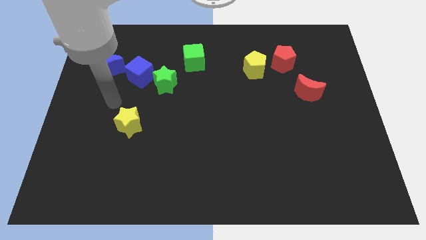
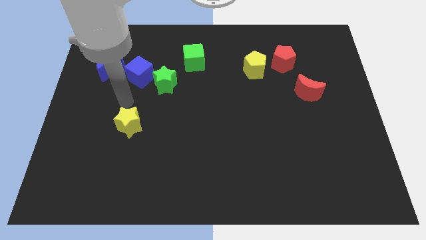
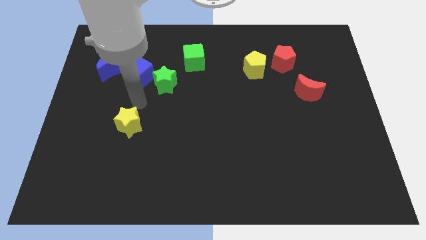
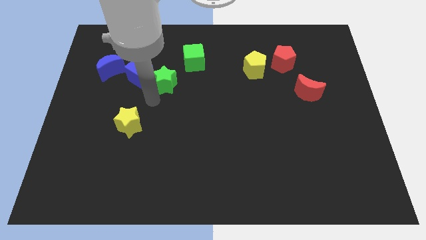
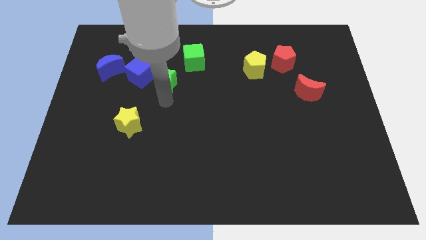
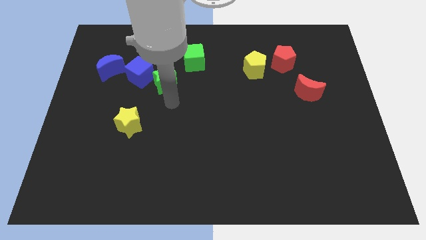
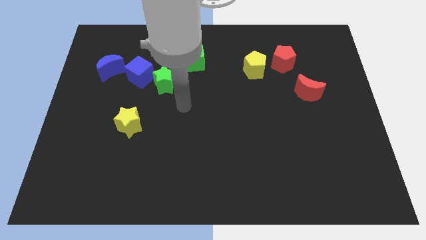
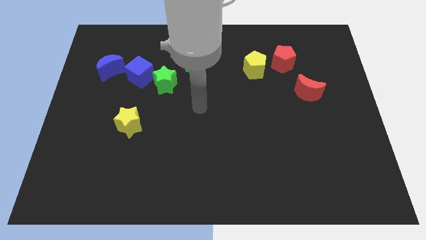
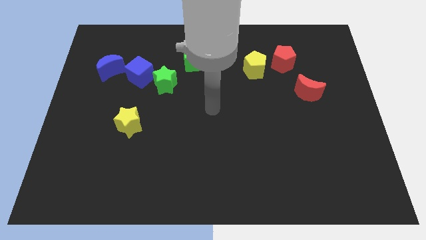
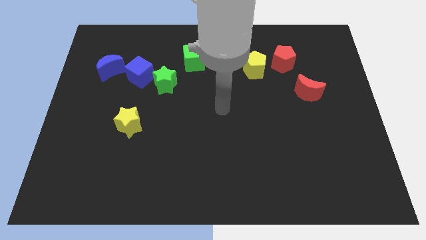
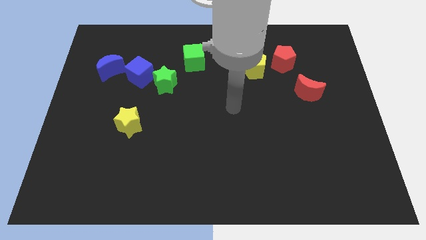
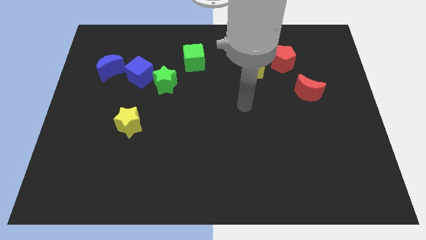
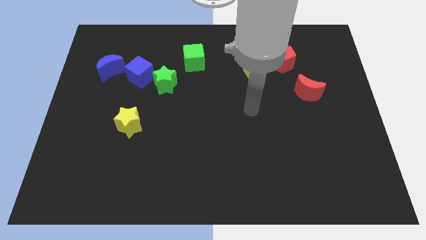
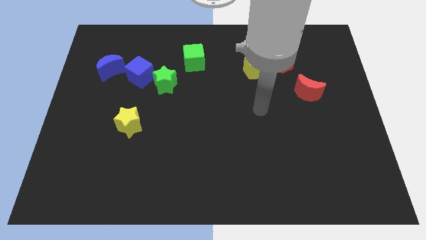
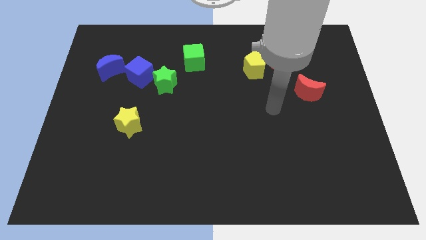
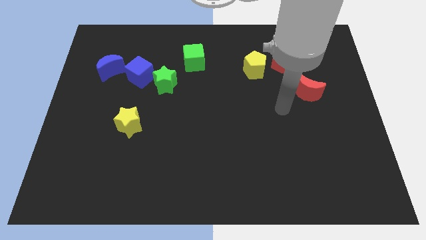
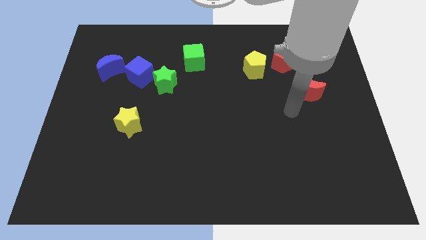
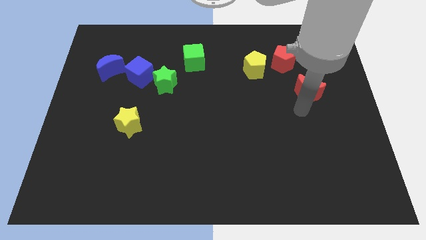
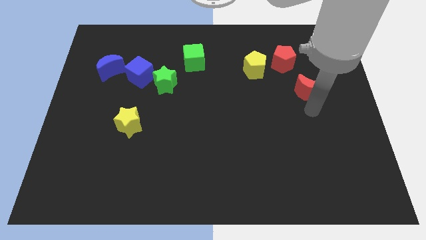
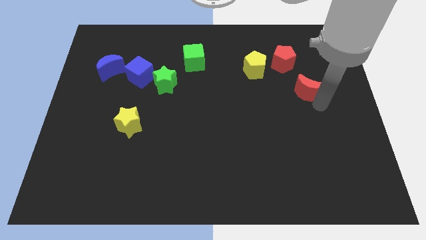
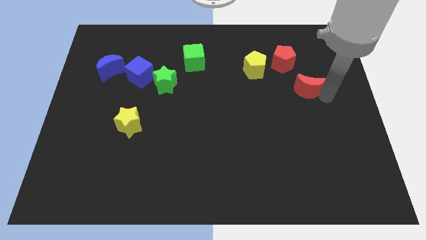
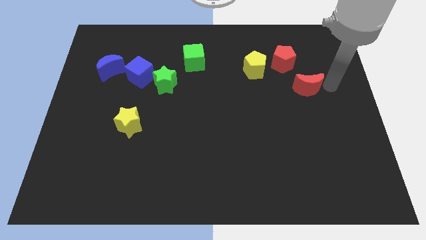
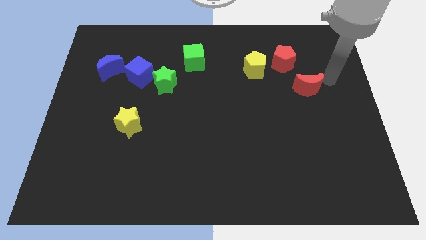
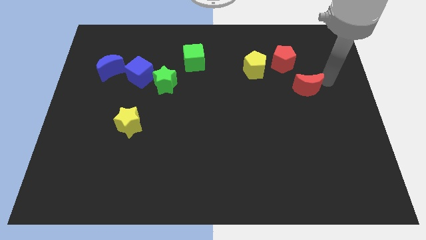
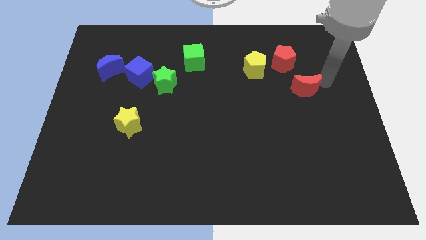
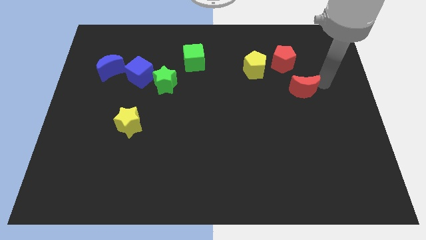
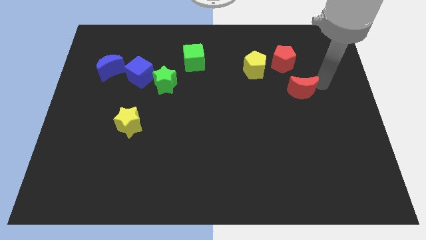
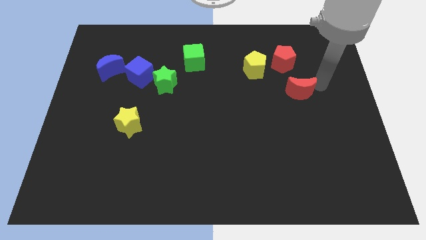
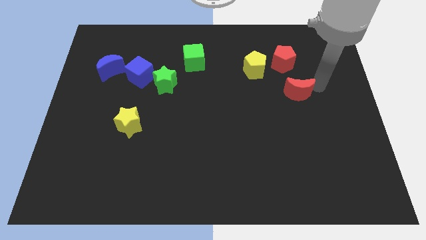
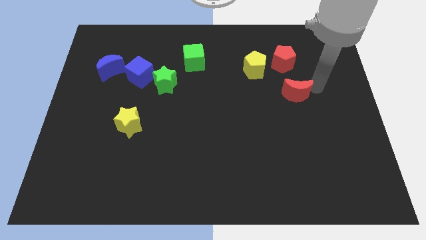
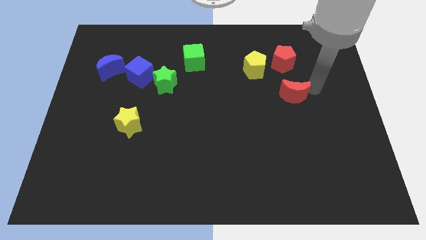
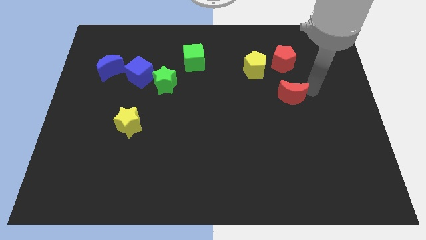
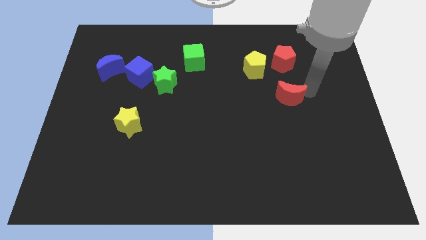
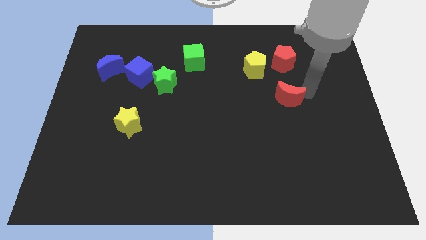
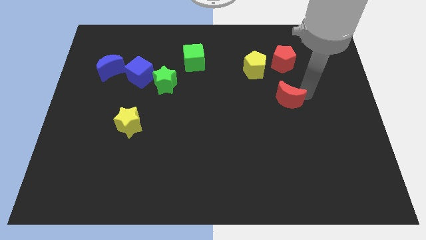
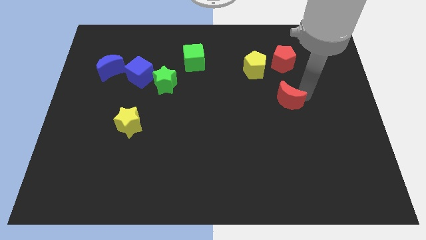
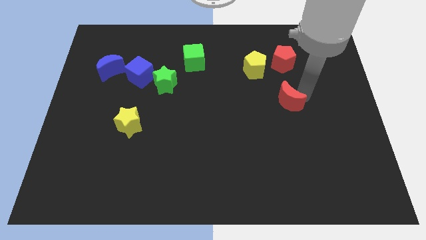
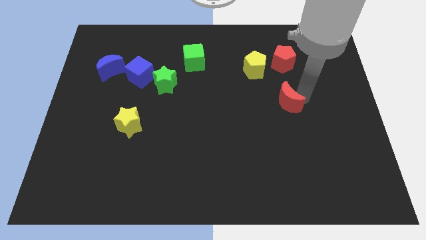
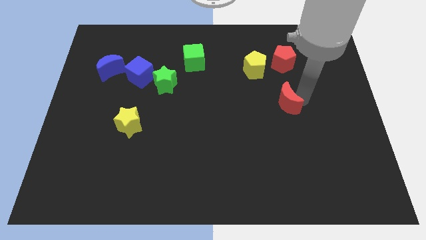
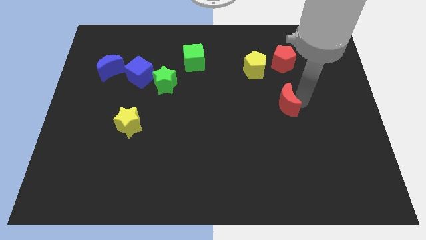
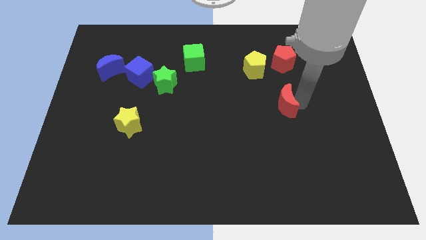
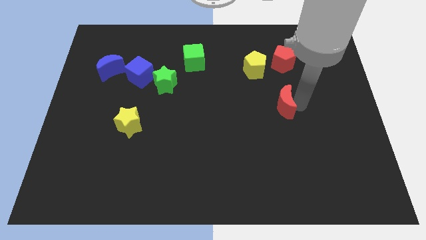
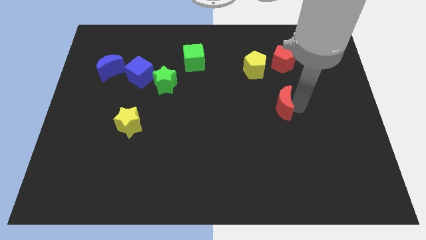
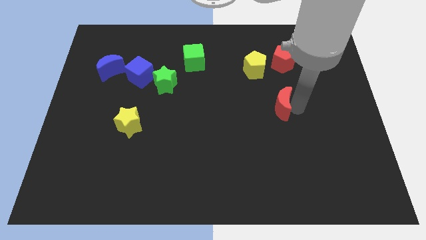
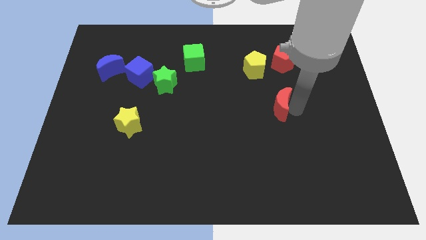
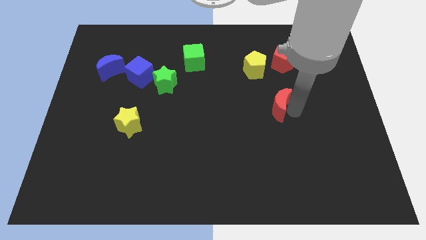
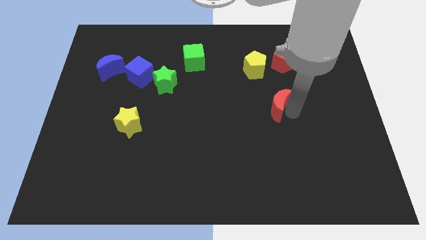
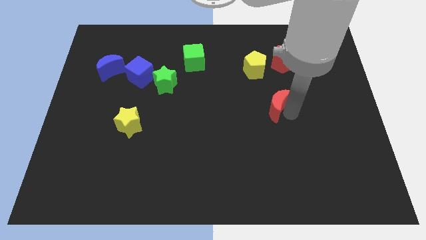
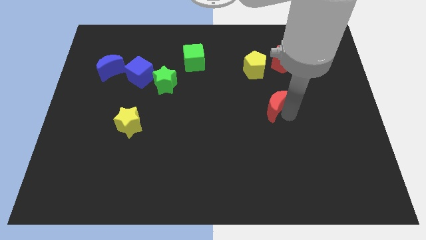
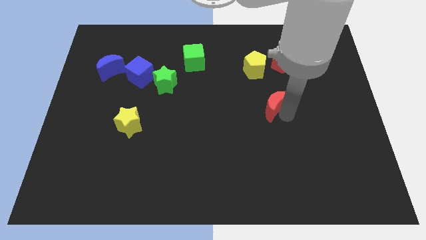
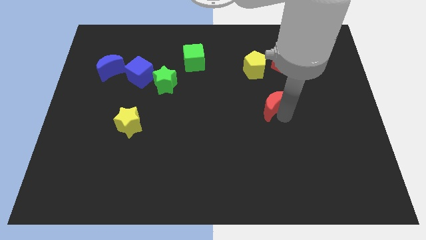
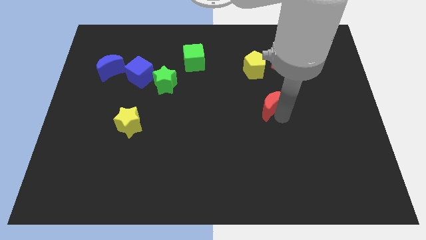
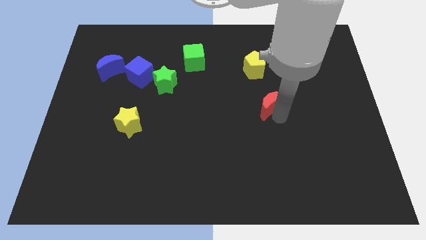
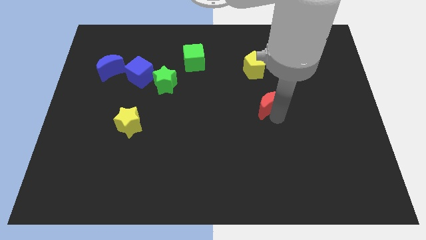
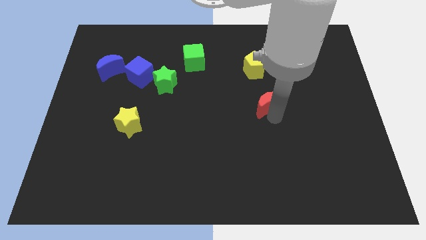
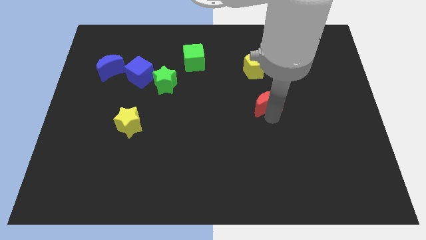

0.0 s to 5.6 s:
put the red moon to the center of the board
